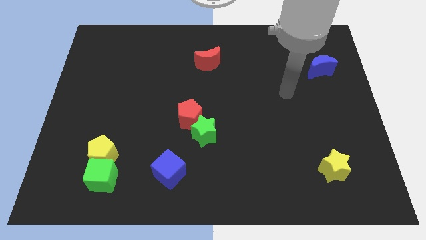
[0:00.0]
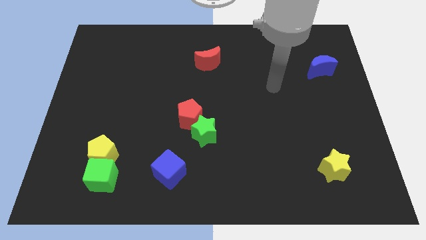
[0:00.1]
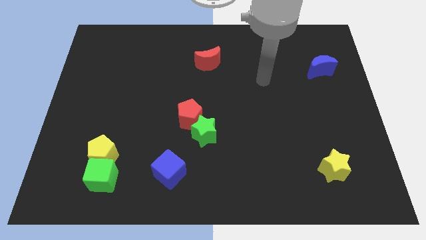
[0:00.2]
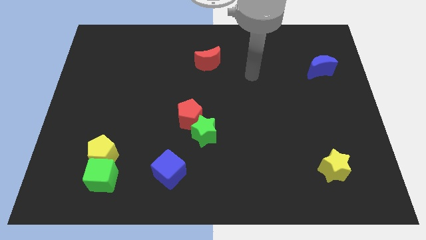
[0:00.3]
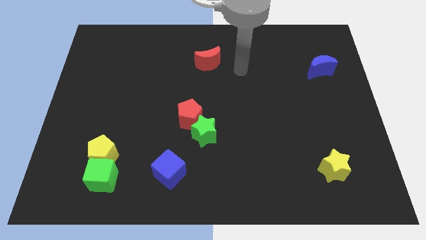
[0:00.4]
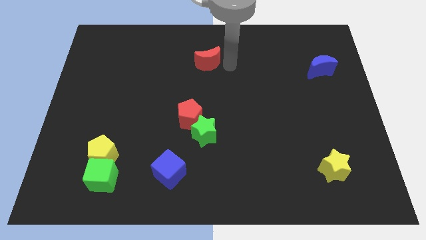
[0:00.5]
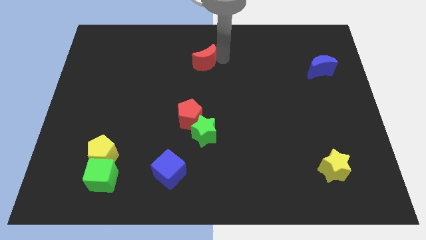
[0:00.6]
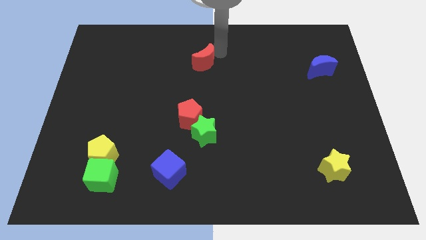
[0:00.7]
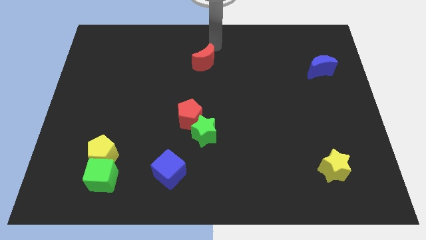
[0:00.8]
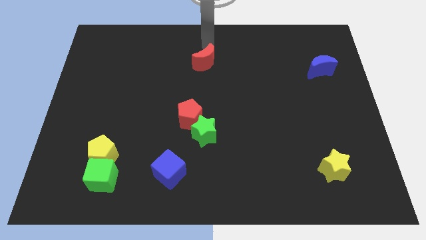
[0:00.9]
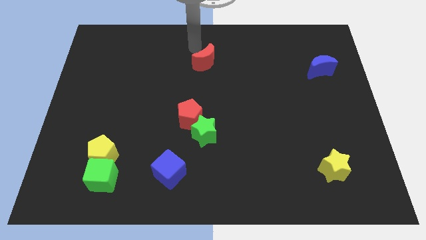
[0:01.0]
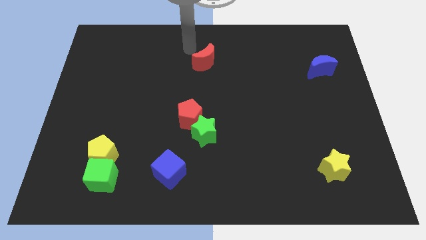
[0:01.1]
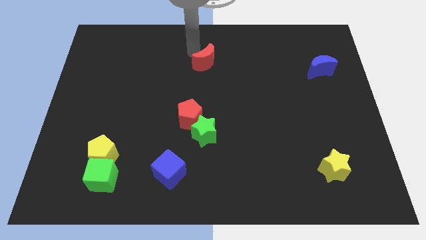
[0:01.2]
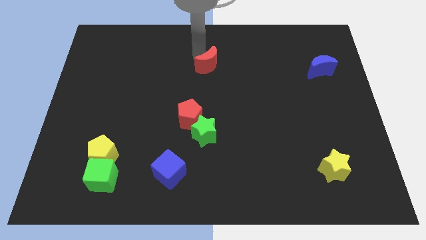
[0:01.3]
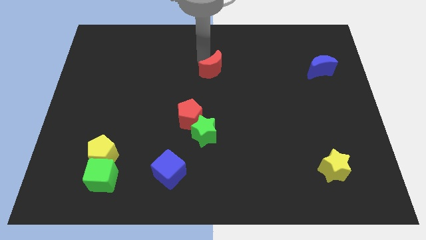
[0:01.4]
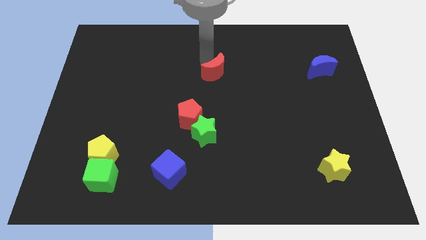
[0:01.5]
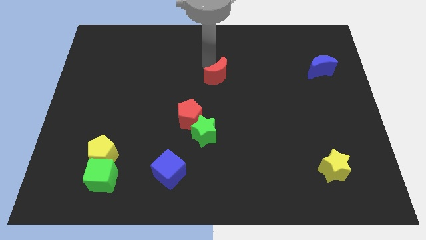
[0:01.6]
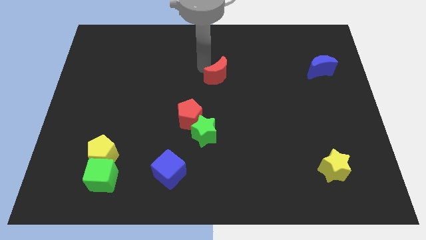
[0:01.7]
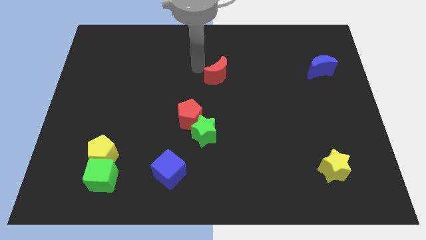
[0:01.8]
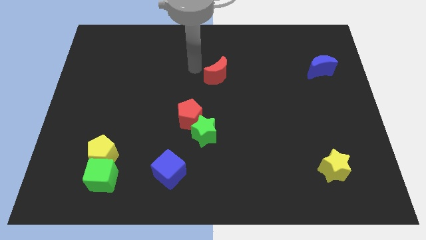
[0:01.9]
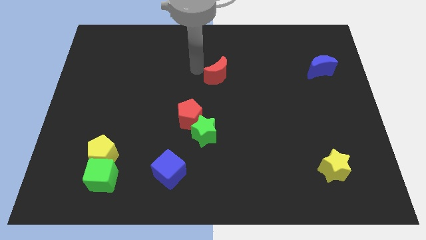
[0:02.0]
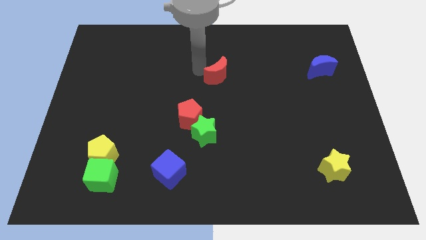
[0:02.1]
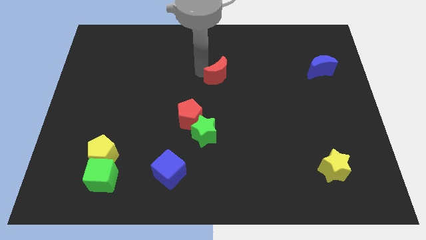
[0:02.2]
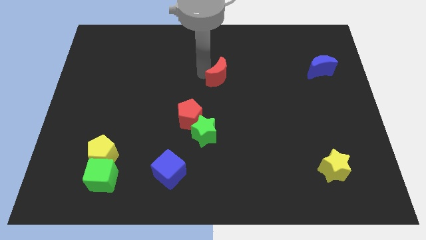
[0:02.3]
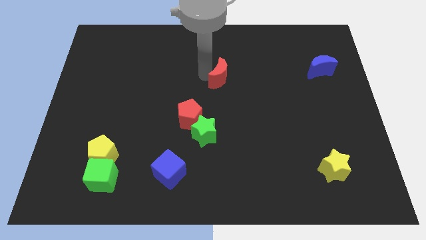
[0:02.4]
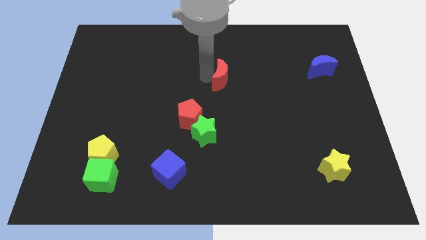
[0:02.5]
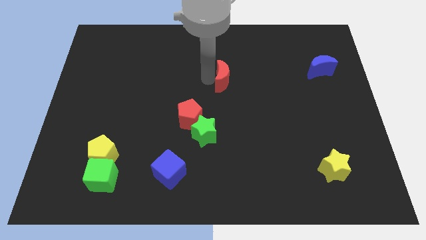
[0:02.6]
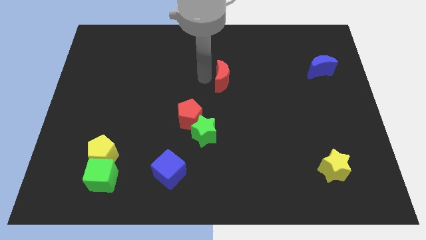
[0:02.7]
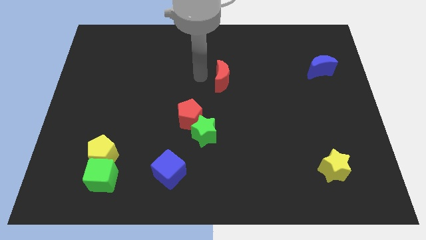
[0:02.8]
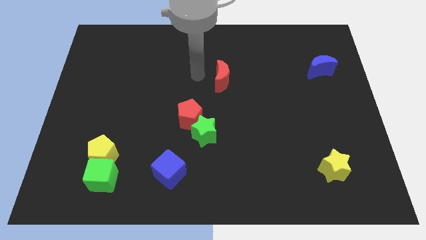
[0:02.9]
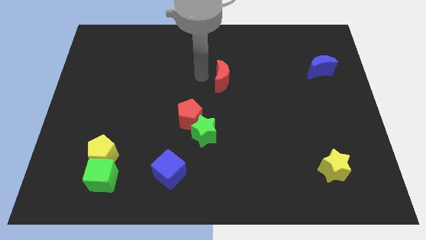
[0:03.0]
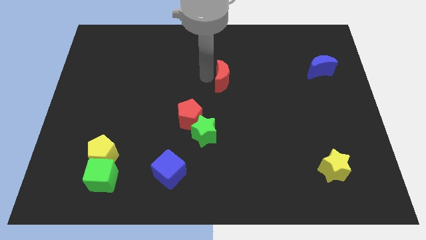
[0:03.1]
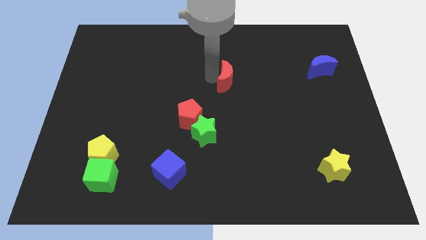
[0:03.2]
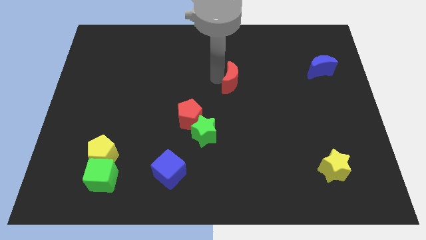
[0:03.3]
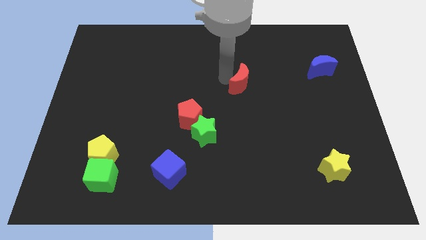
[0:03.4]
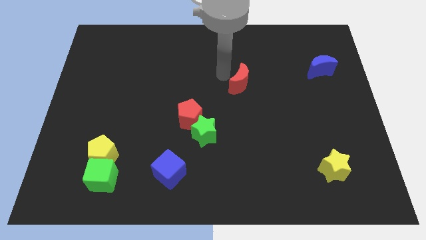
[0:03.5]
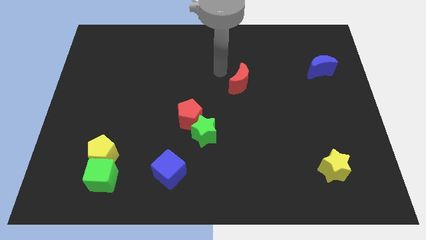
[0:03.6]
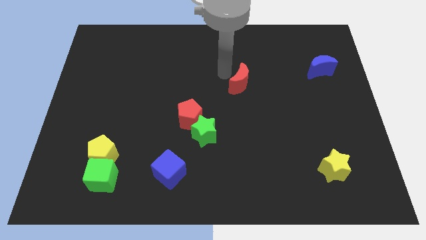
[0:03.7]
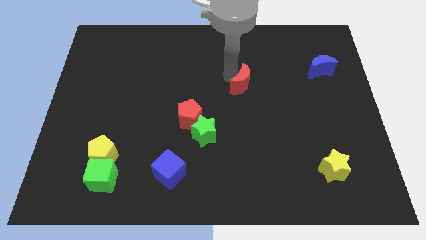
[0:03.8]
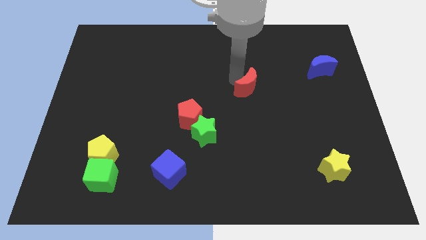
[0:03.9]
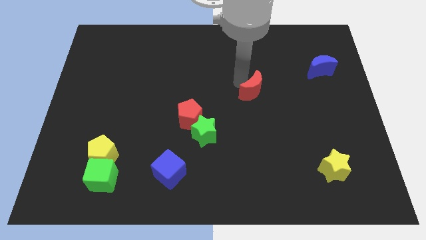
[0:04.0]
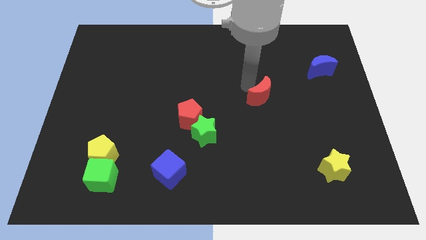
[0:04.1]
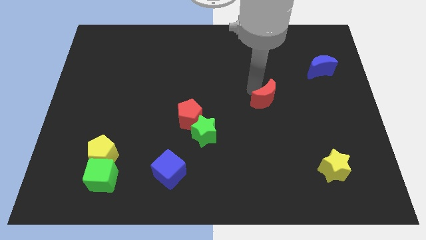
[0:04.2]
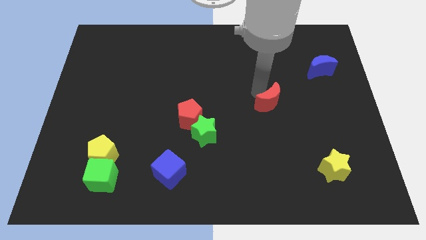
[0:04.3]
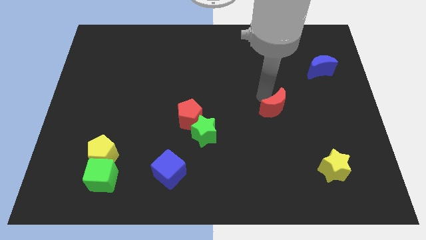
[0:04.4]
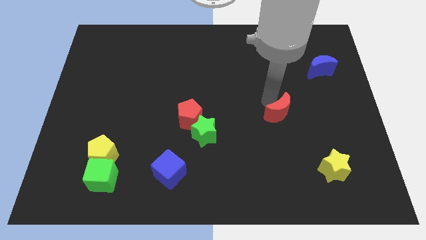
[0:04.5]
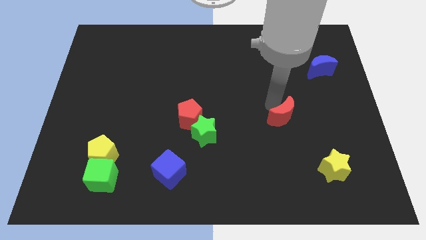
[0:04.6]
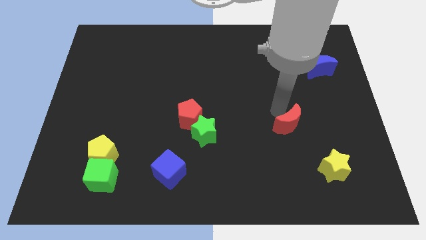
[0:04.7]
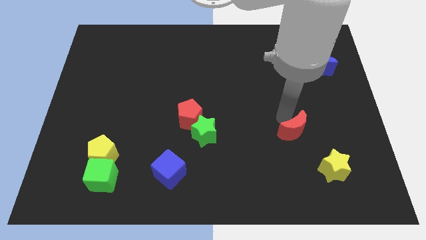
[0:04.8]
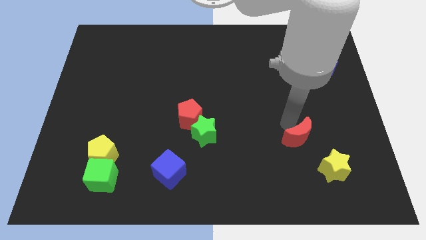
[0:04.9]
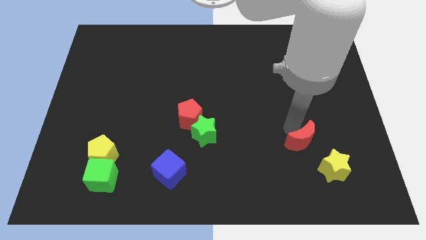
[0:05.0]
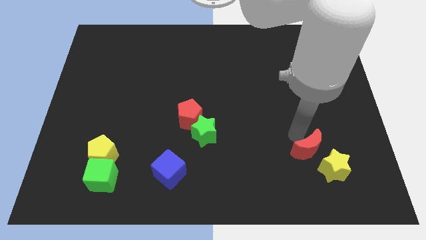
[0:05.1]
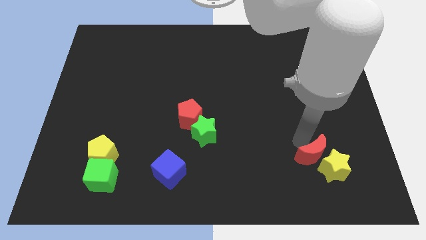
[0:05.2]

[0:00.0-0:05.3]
slide the red moon next to the yellow star

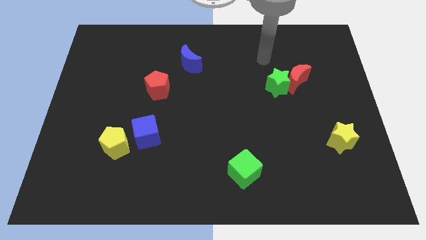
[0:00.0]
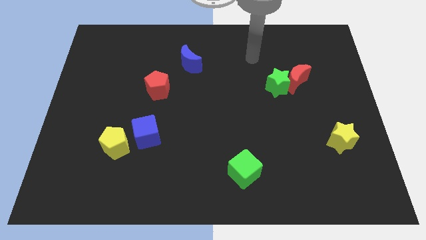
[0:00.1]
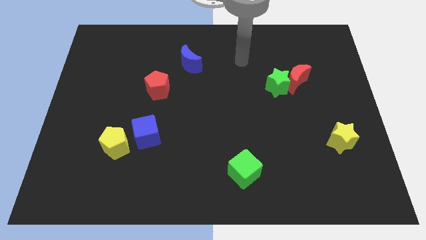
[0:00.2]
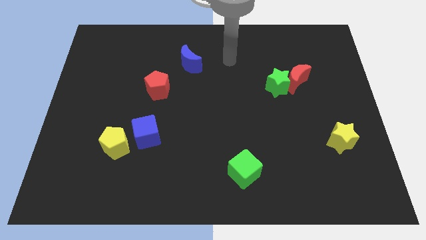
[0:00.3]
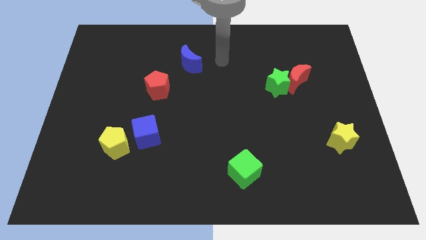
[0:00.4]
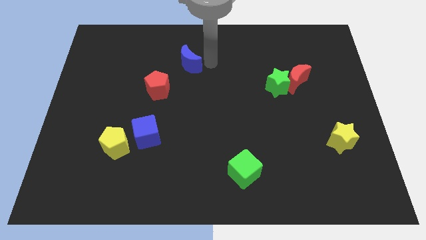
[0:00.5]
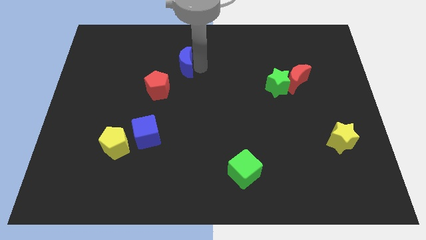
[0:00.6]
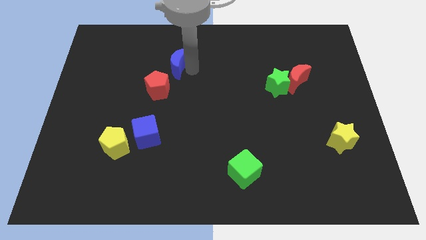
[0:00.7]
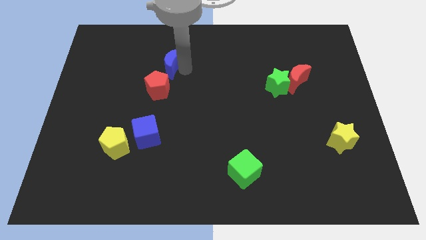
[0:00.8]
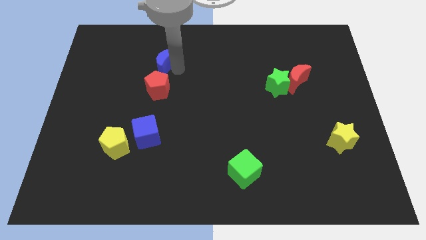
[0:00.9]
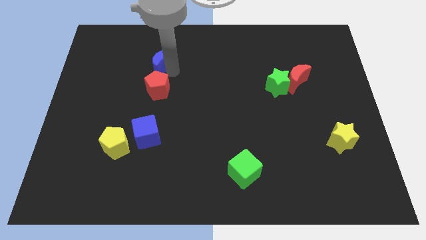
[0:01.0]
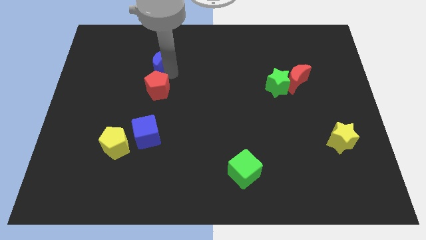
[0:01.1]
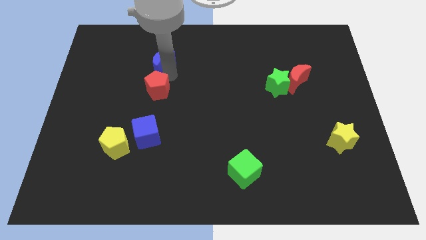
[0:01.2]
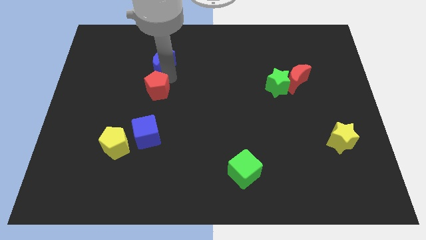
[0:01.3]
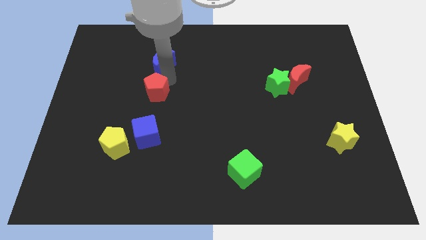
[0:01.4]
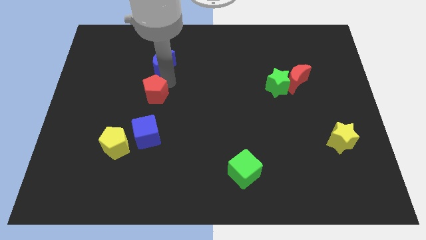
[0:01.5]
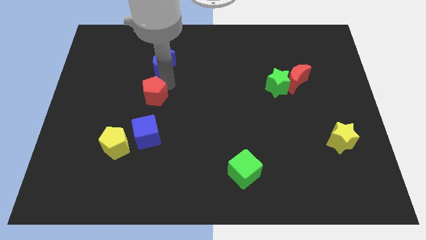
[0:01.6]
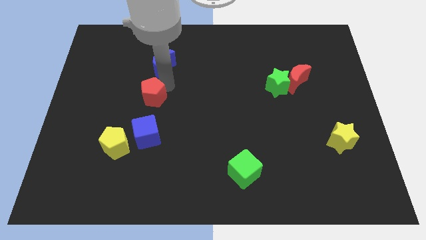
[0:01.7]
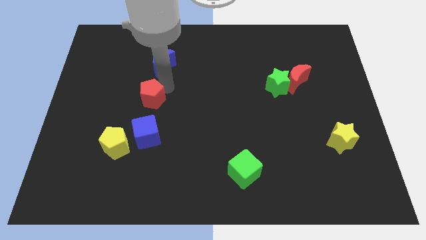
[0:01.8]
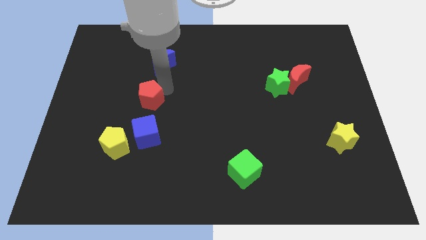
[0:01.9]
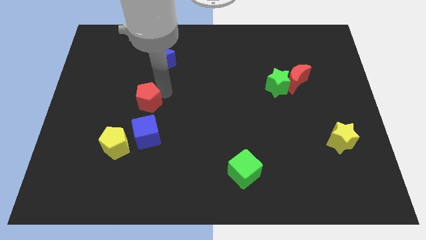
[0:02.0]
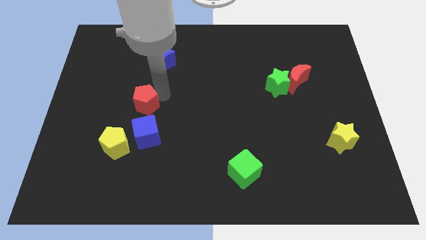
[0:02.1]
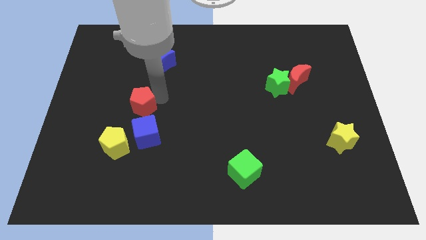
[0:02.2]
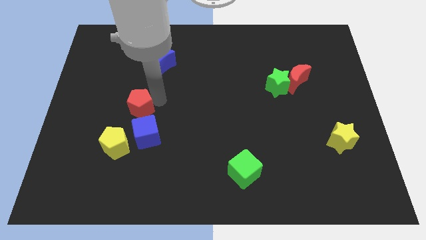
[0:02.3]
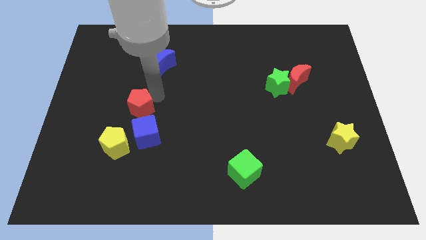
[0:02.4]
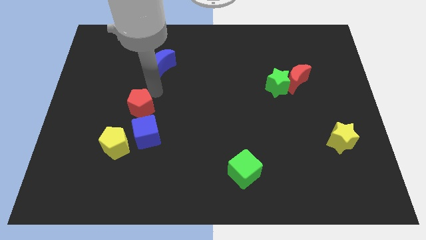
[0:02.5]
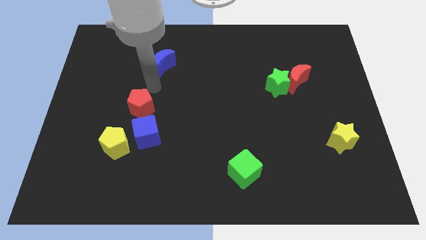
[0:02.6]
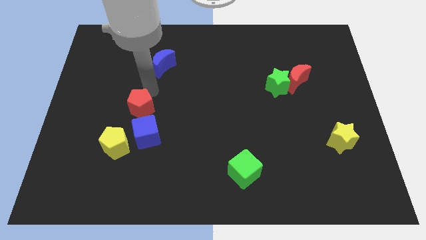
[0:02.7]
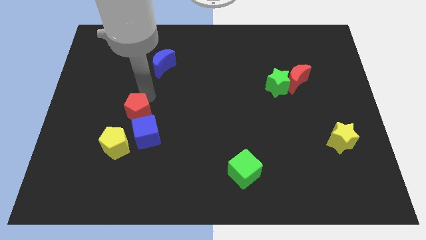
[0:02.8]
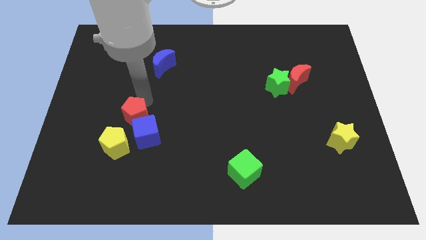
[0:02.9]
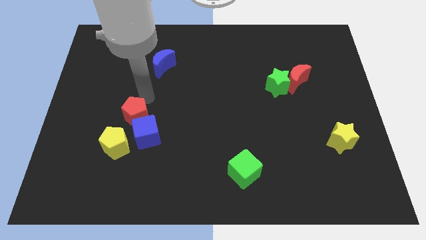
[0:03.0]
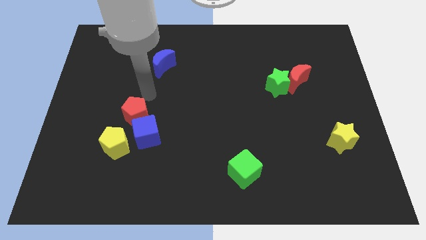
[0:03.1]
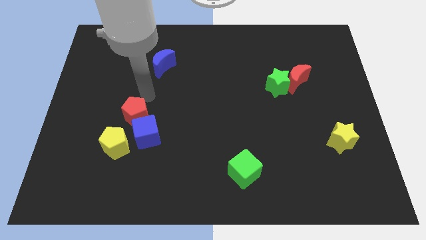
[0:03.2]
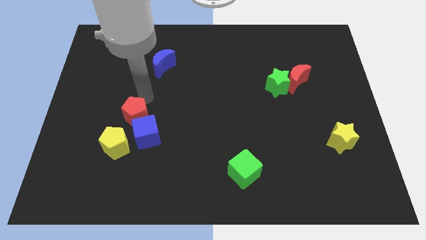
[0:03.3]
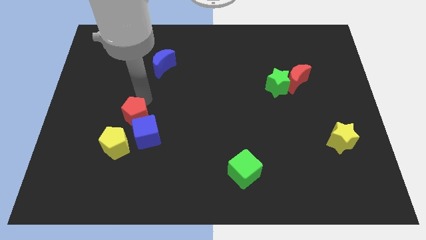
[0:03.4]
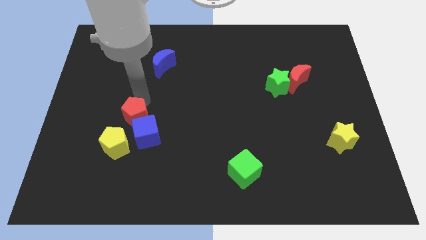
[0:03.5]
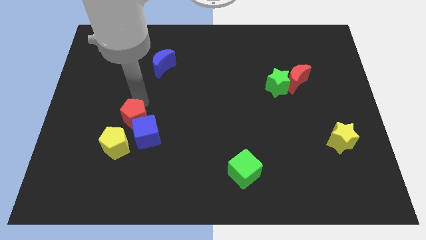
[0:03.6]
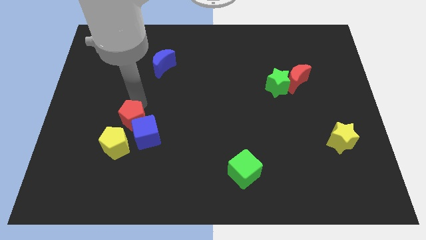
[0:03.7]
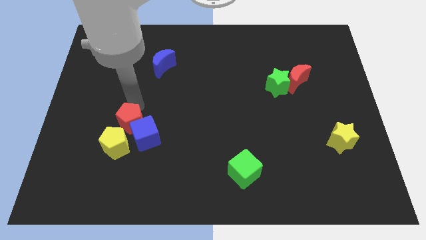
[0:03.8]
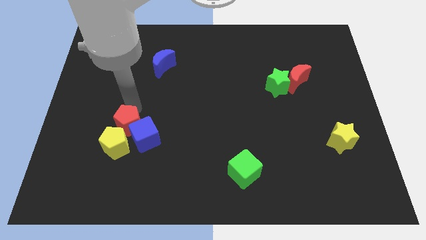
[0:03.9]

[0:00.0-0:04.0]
put the red pentagon close to the yellow pentagon
